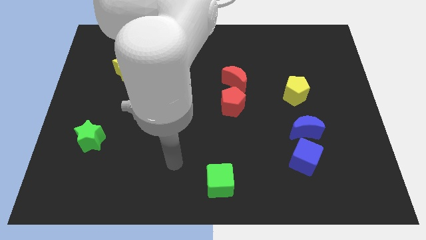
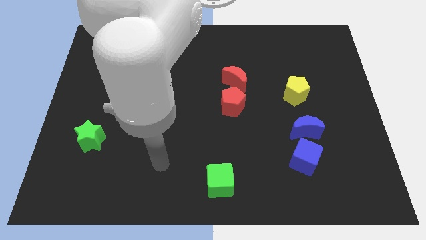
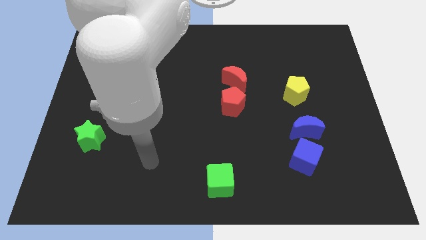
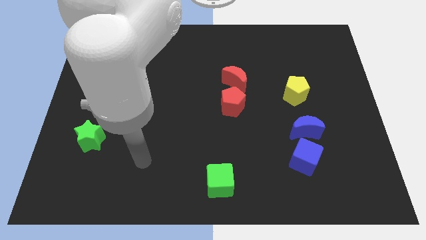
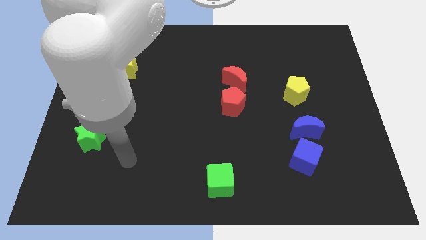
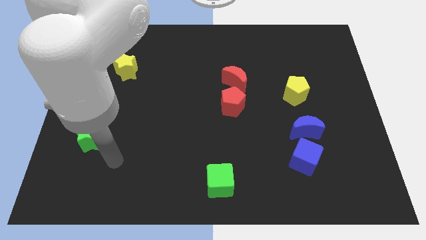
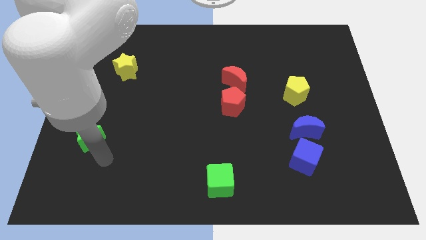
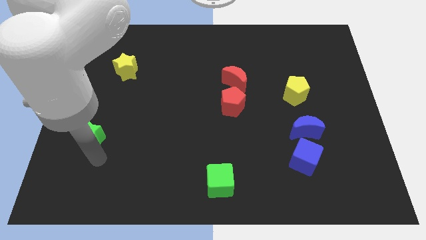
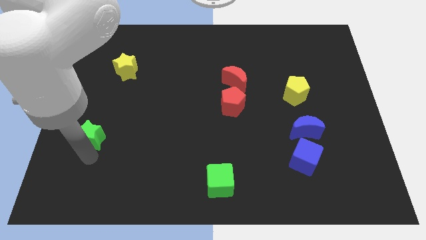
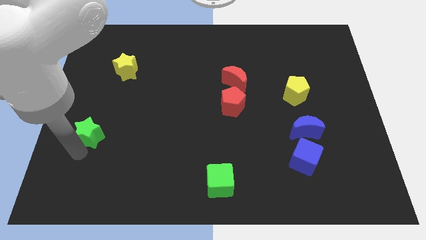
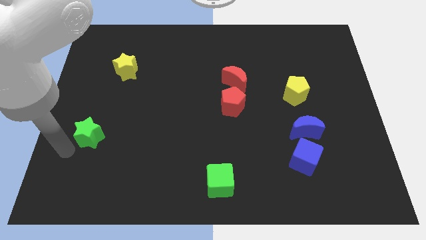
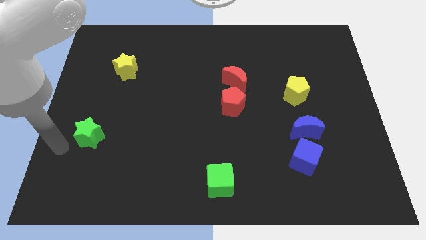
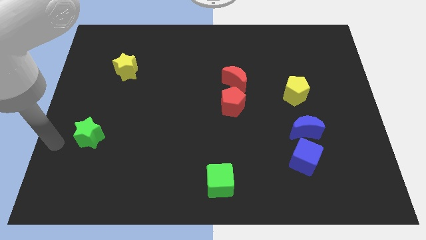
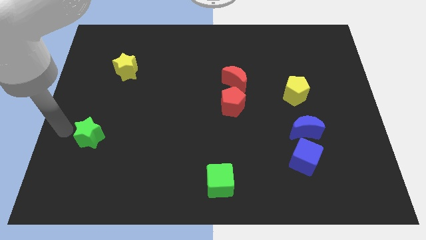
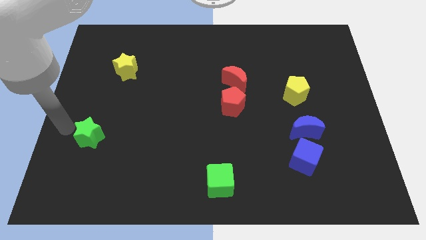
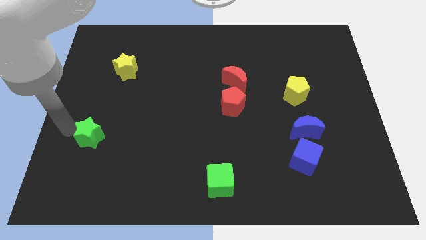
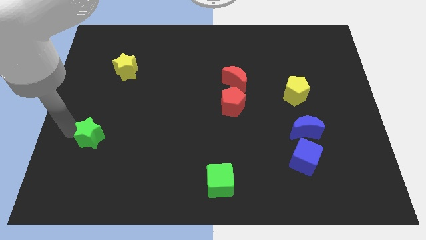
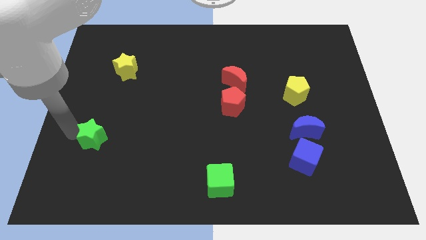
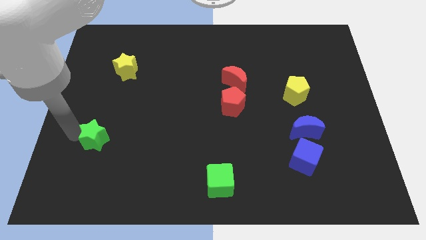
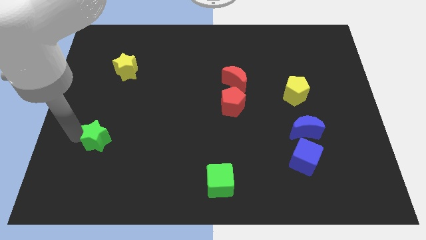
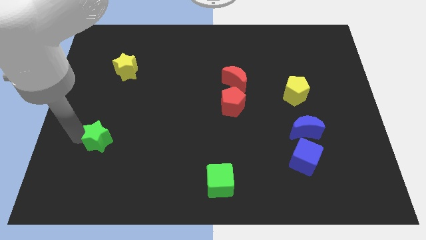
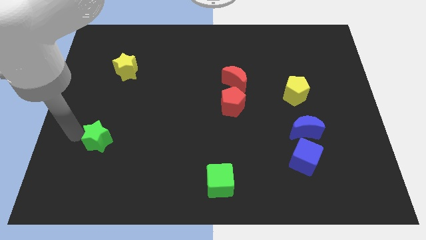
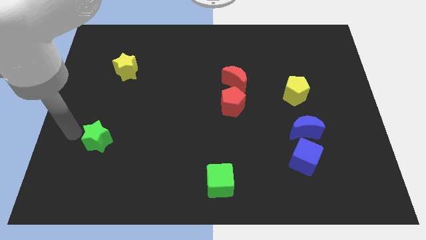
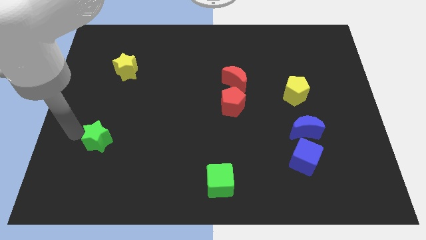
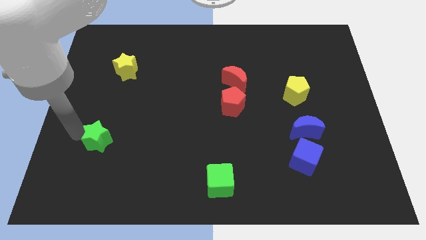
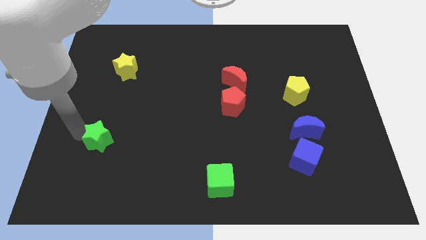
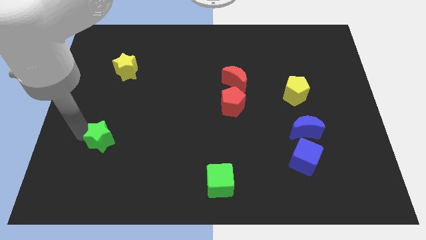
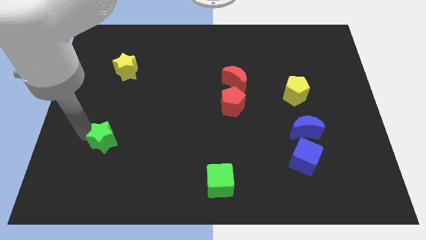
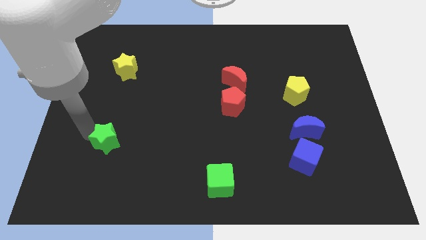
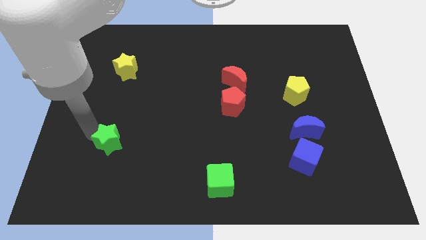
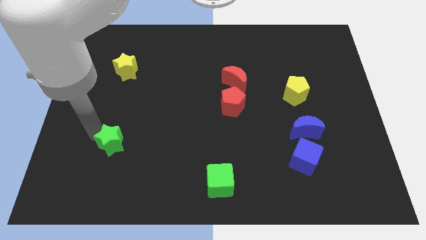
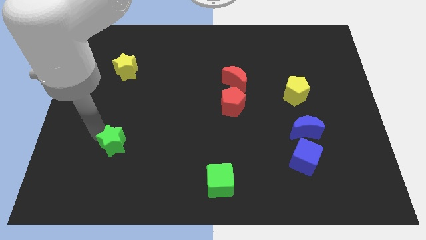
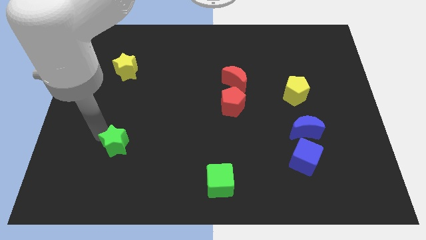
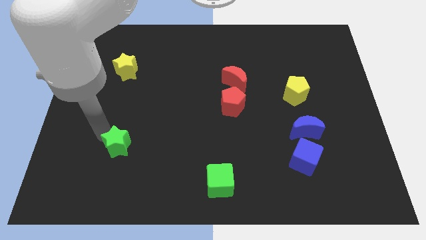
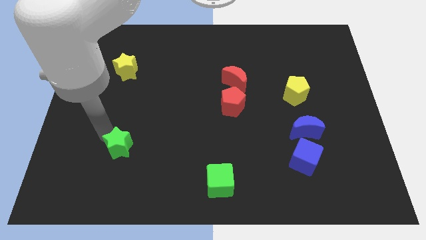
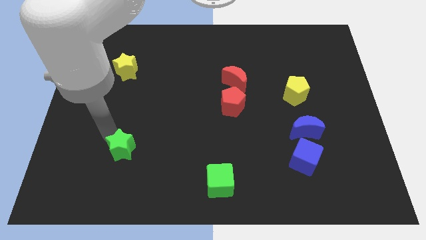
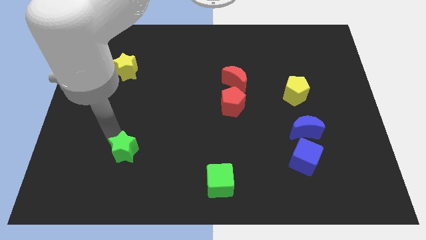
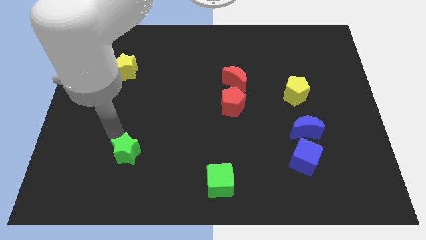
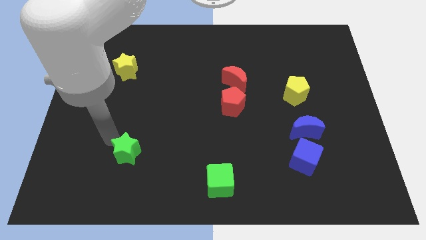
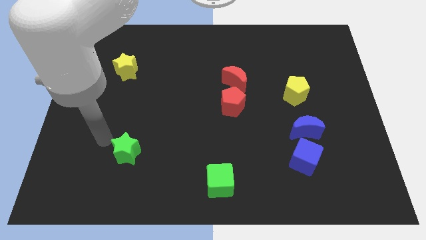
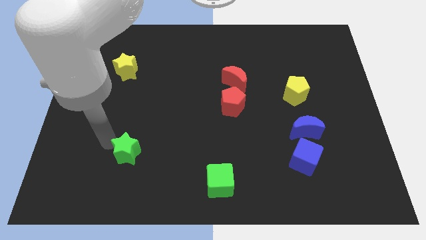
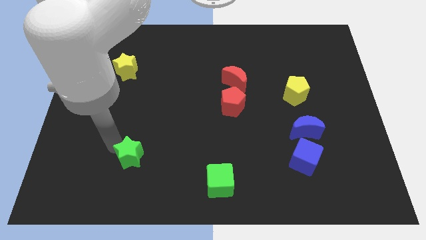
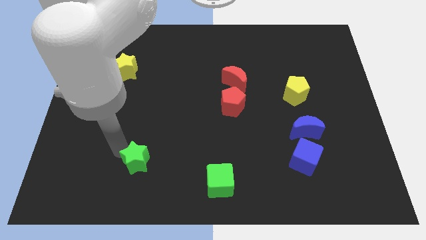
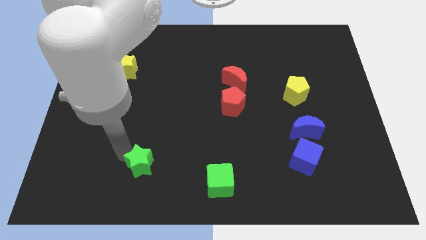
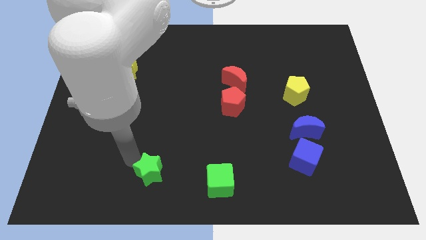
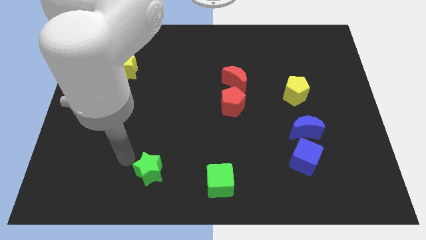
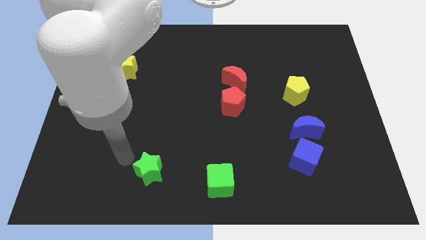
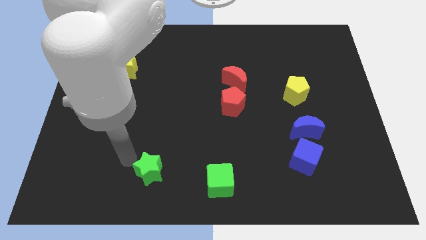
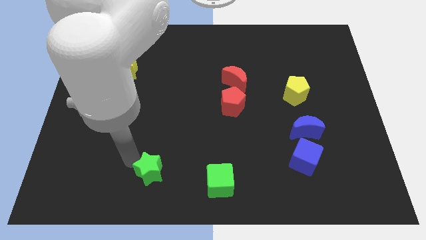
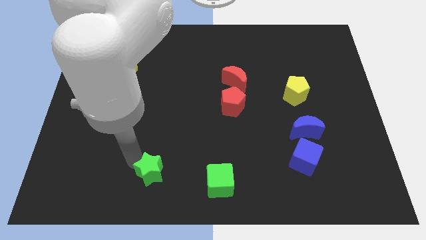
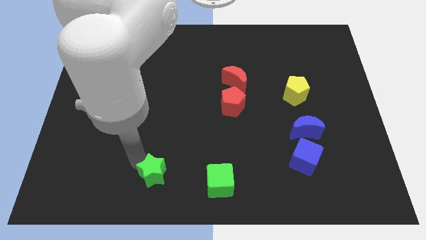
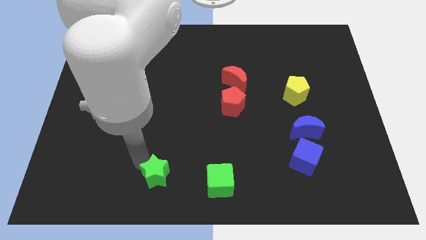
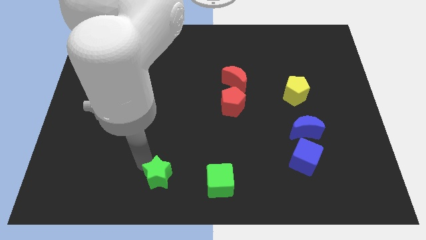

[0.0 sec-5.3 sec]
push the green star to the bottom side
